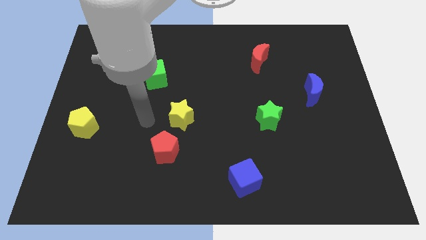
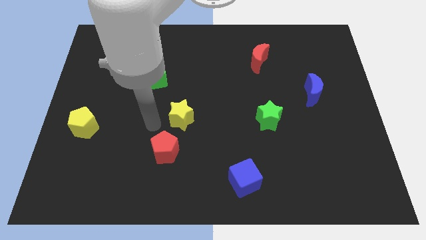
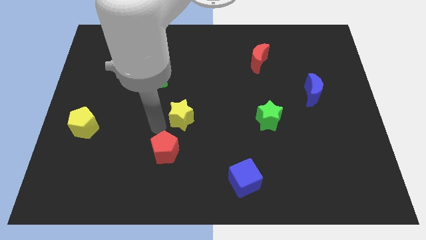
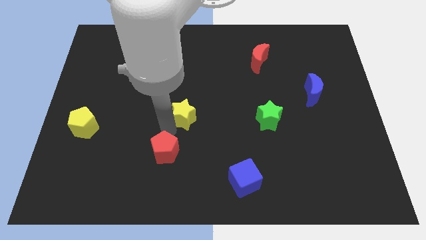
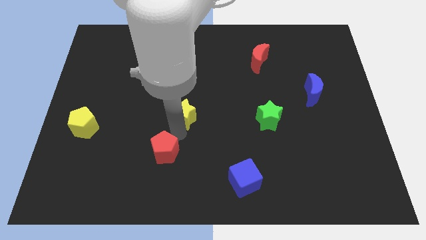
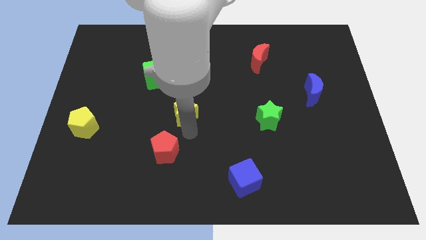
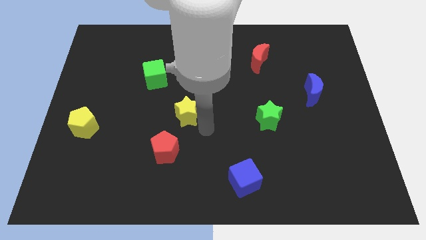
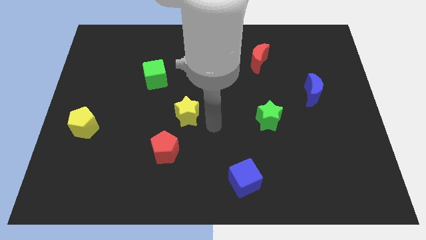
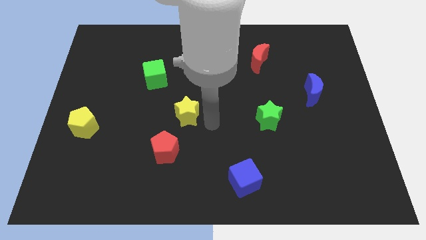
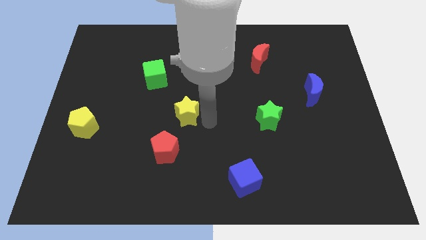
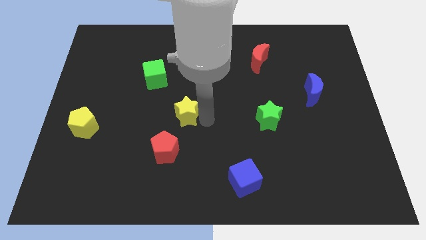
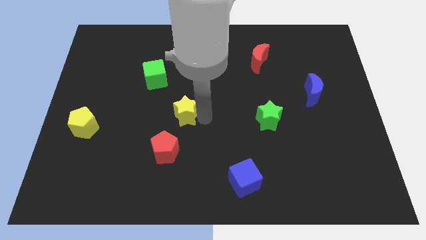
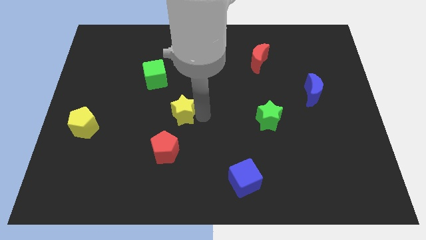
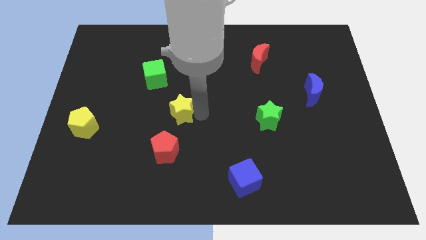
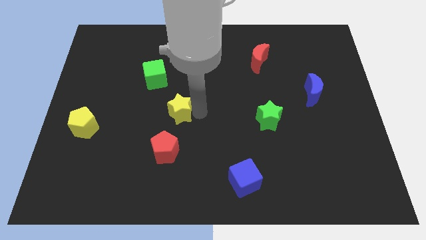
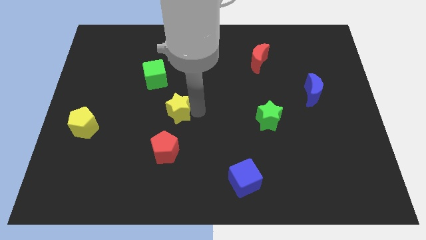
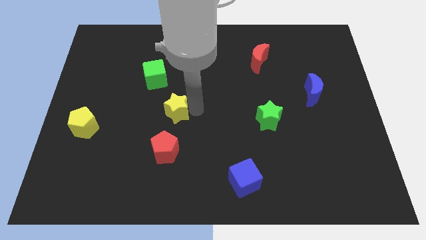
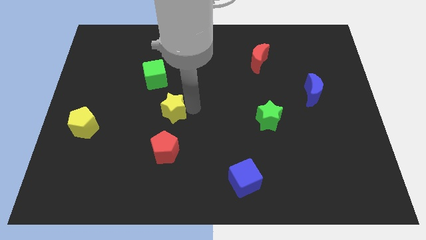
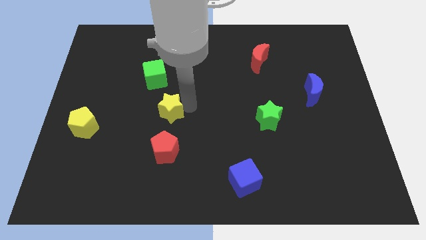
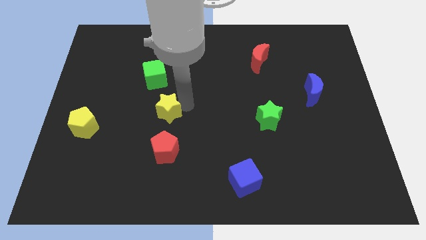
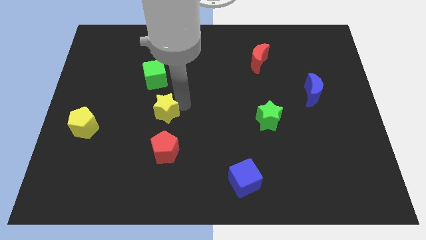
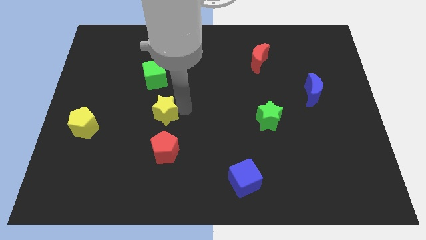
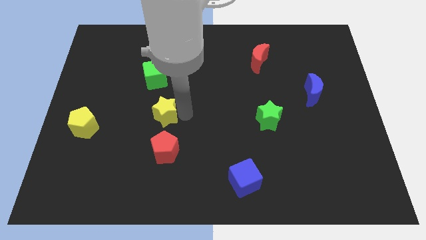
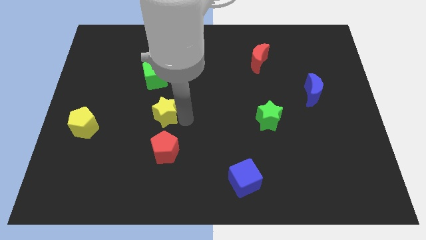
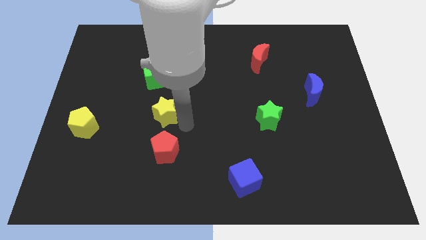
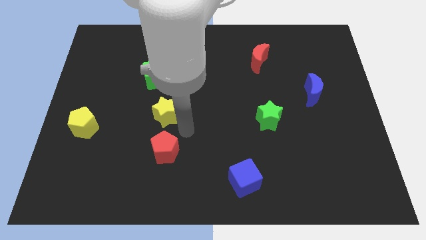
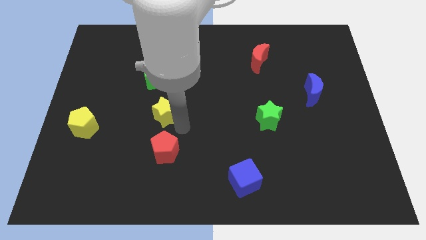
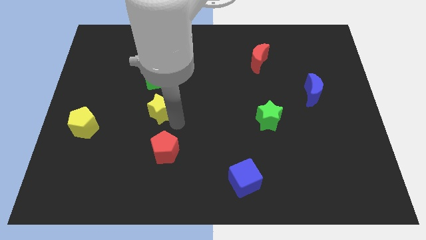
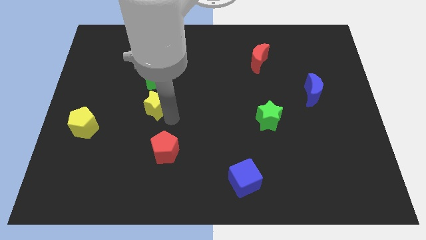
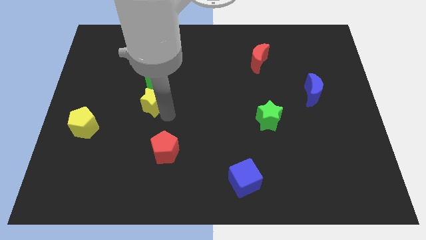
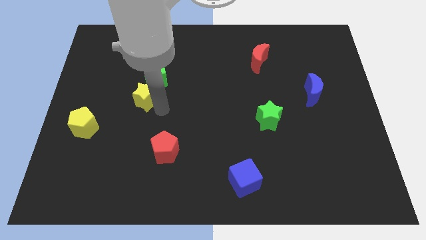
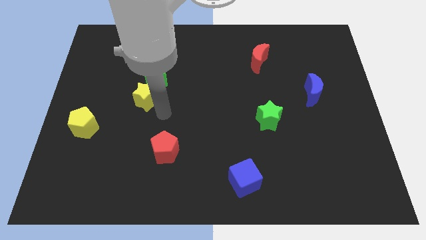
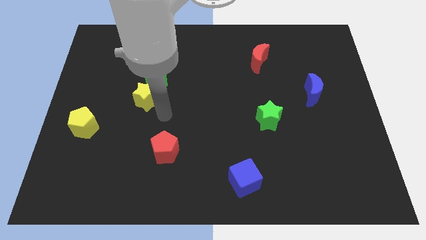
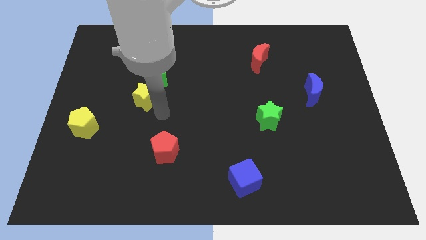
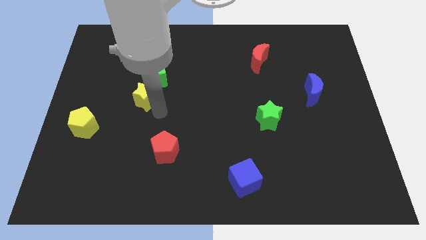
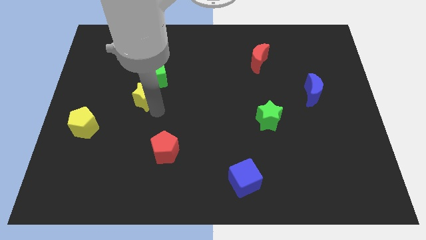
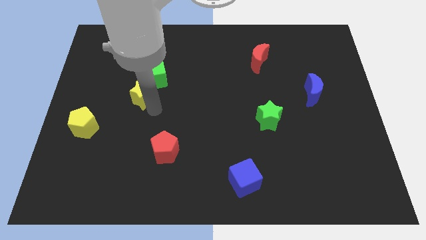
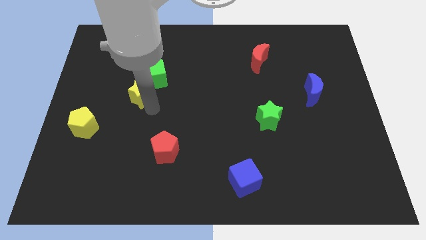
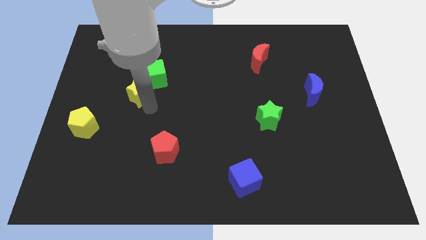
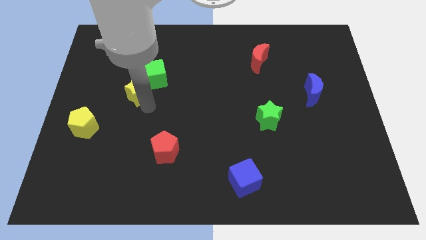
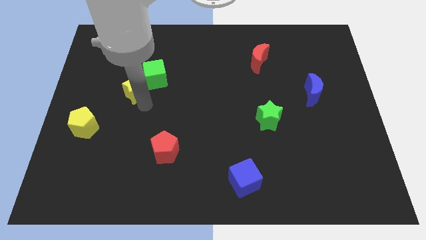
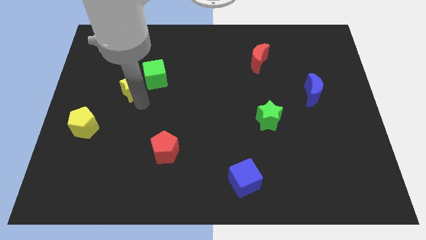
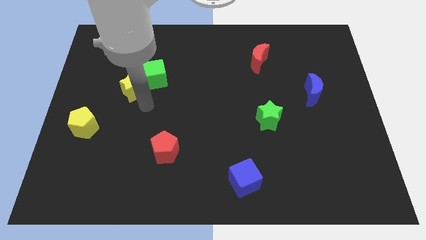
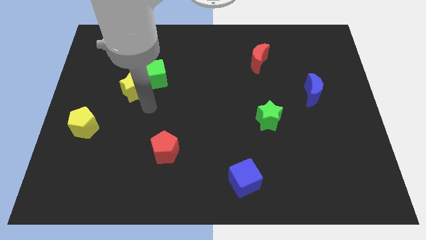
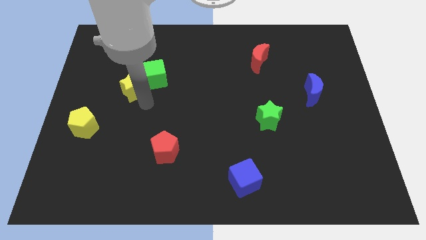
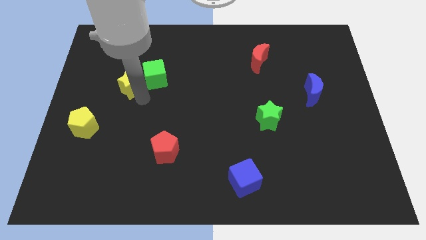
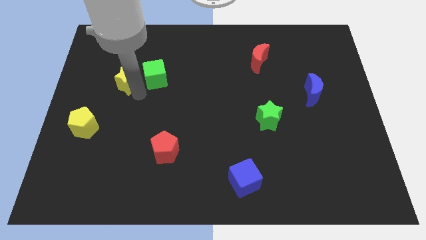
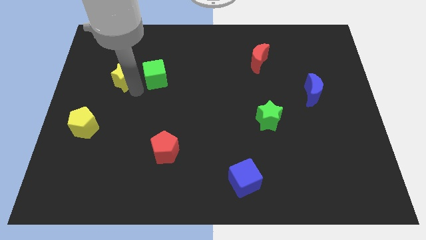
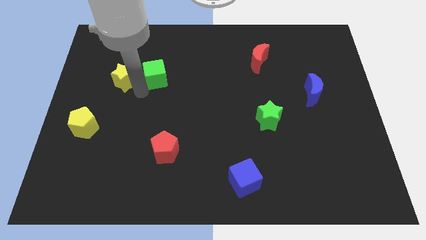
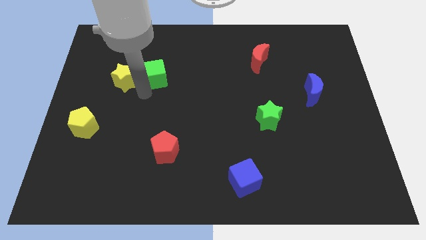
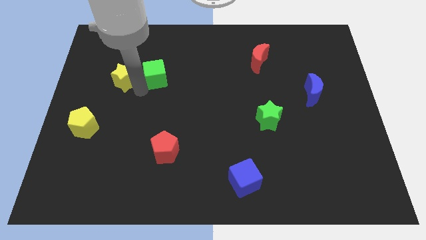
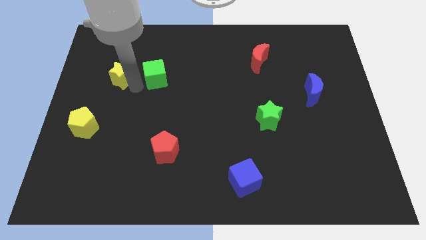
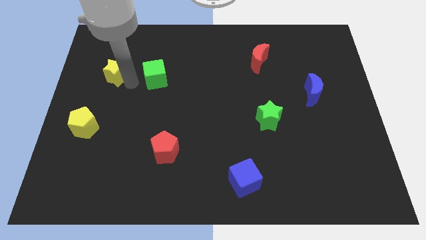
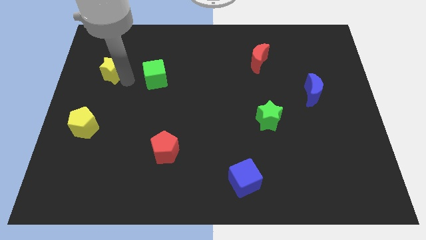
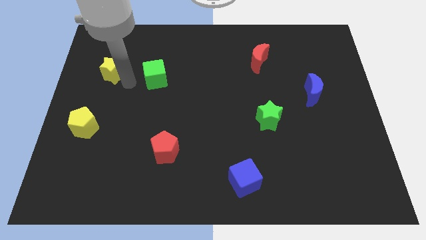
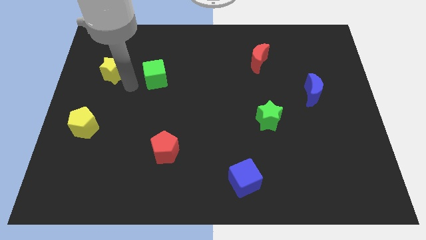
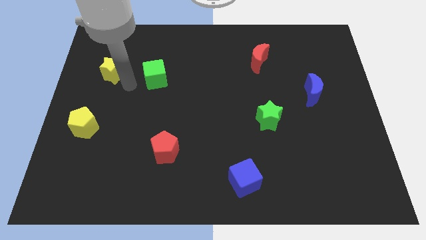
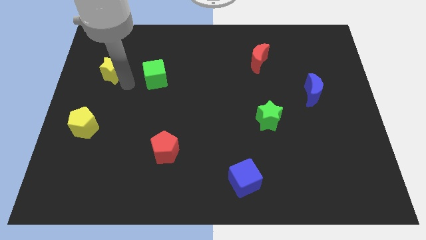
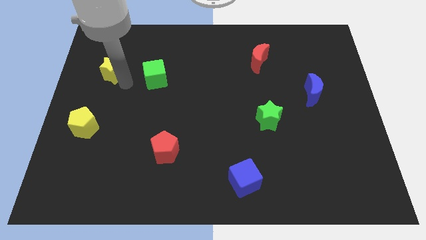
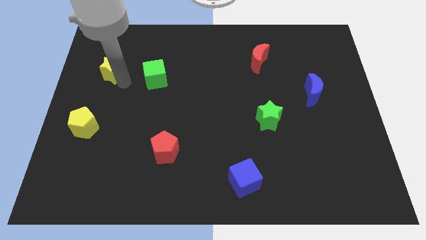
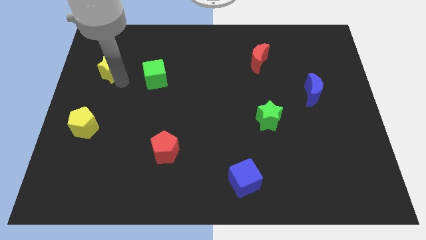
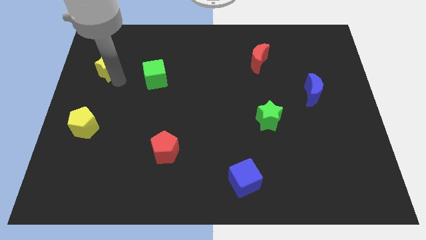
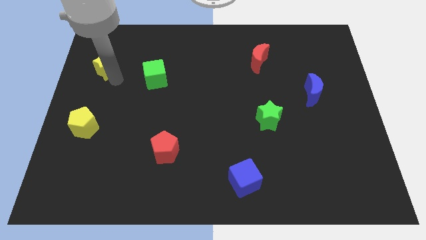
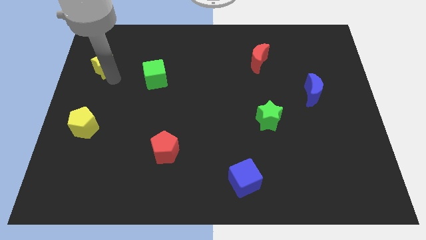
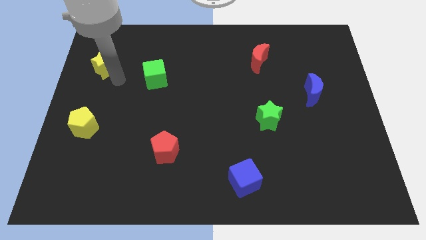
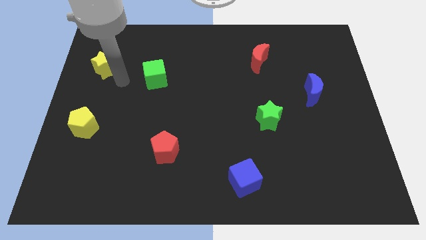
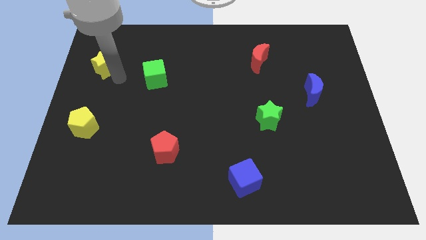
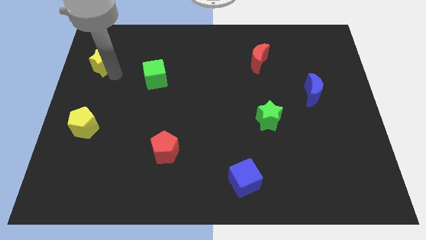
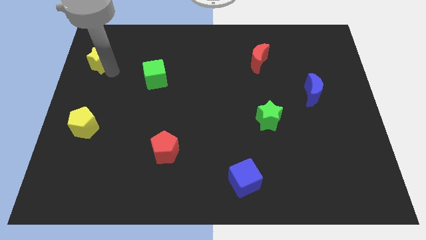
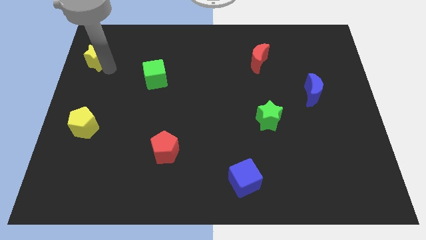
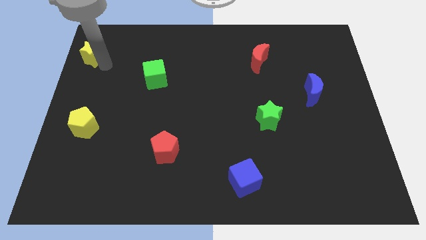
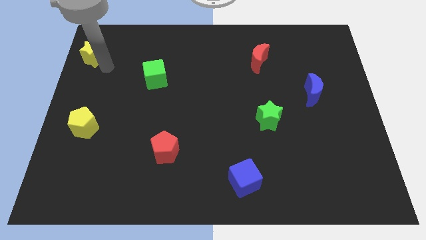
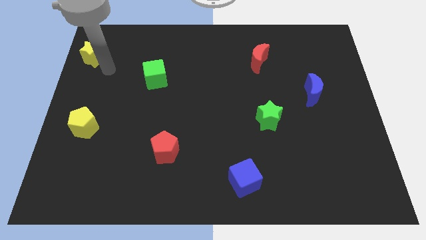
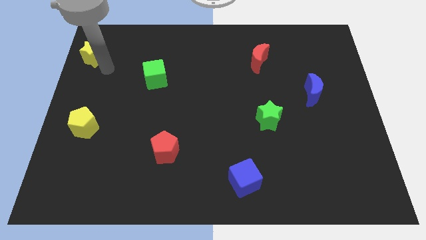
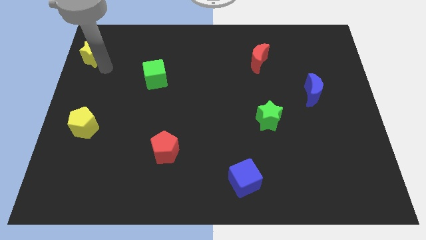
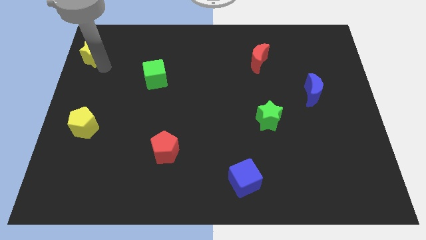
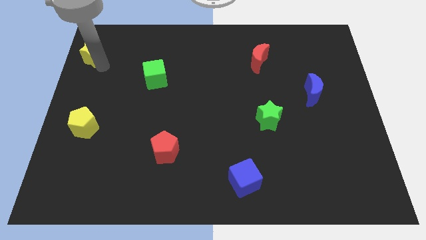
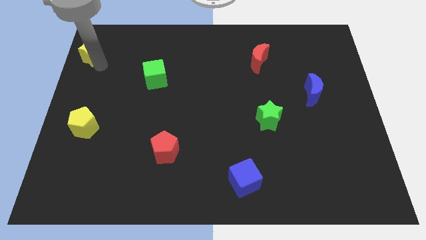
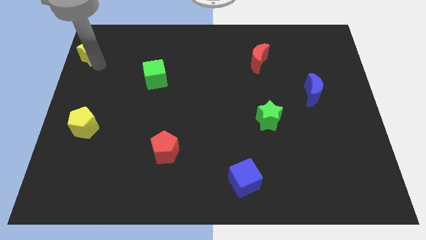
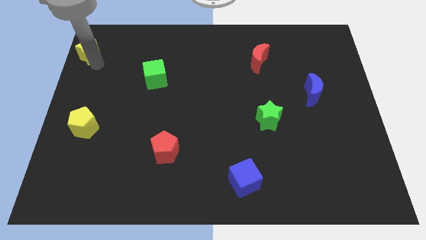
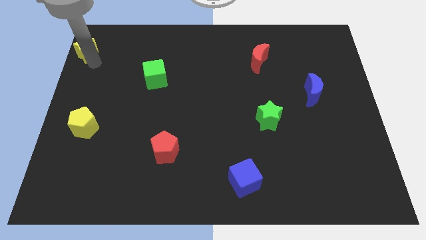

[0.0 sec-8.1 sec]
move the yellow star to the top left
